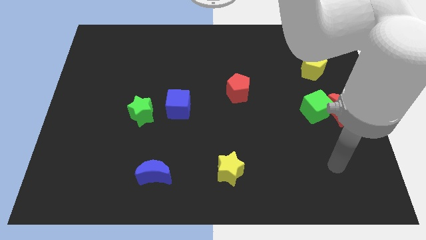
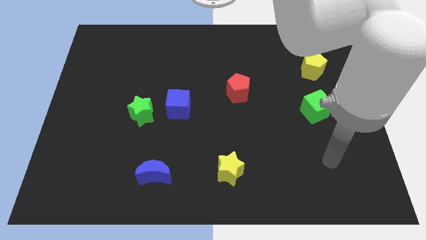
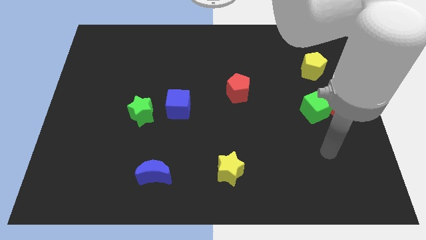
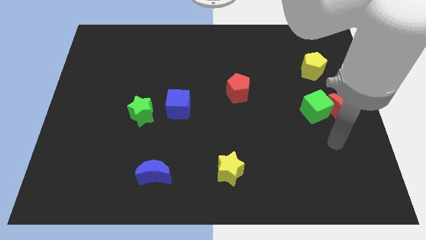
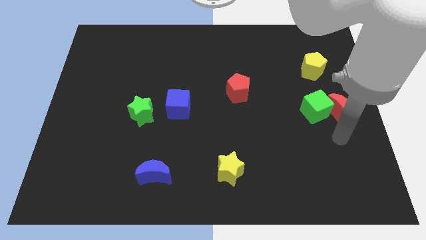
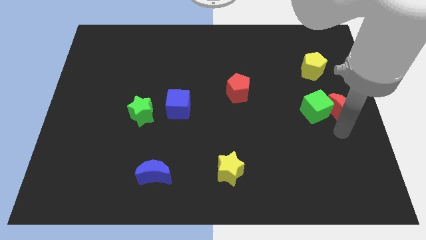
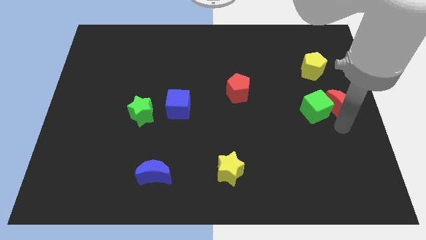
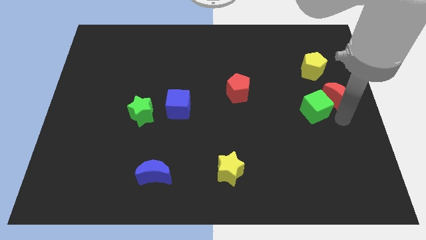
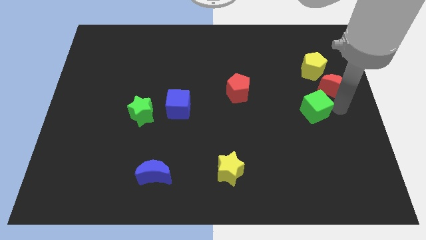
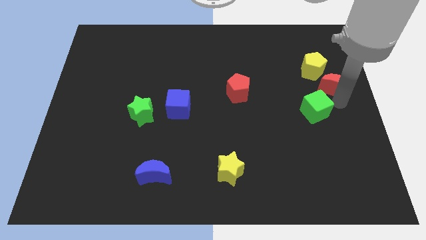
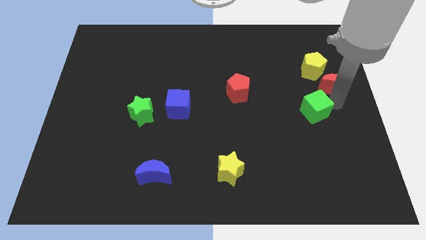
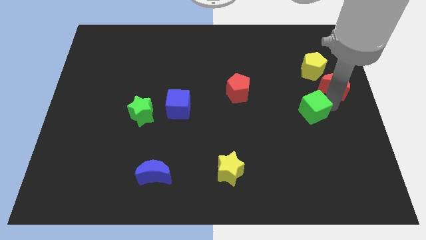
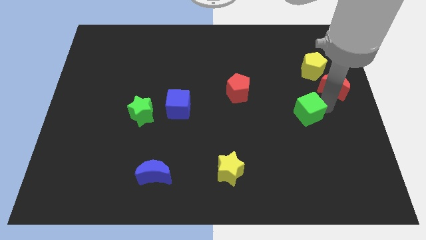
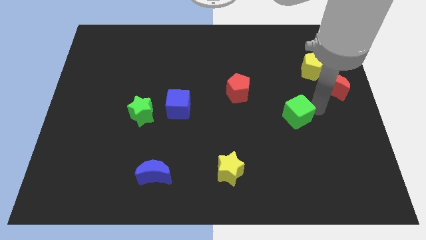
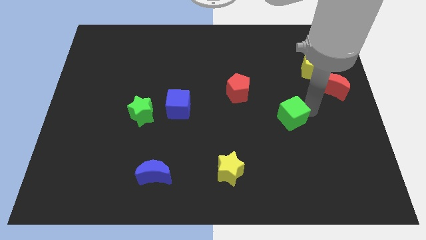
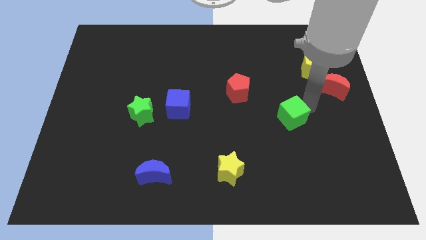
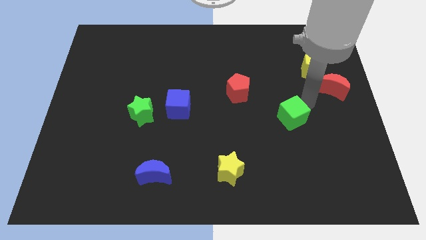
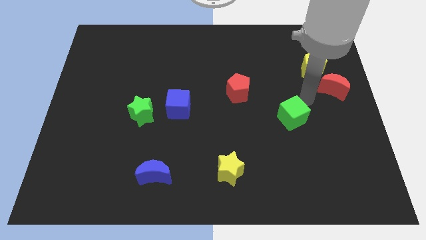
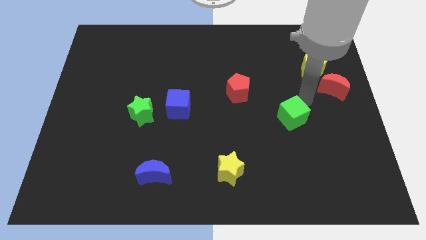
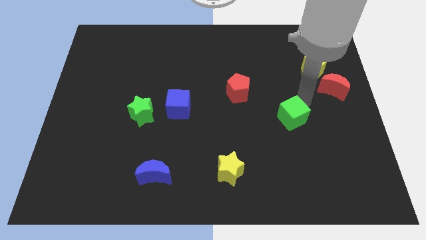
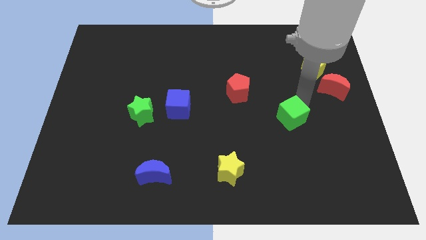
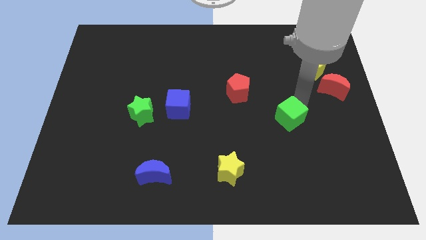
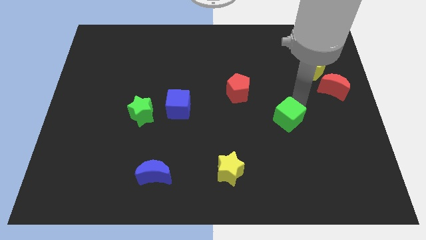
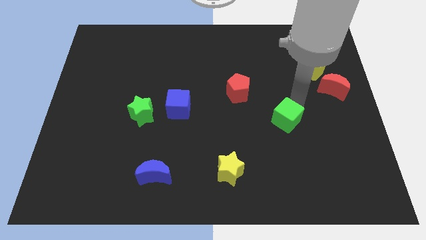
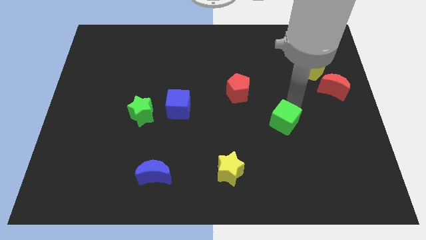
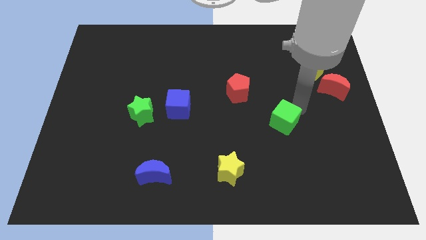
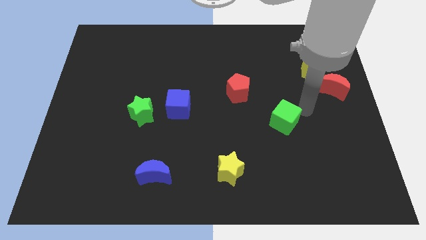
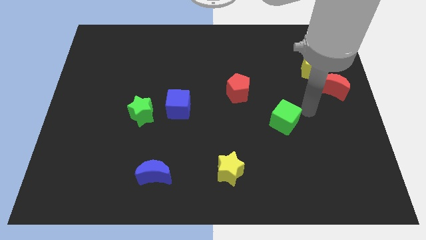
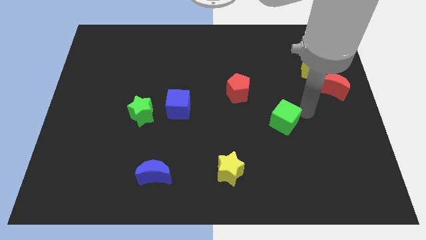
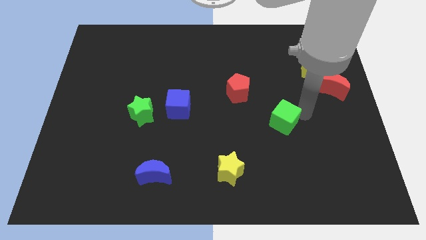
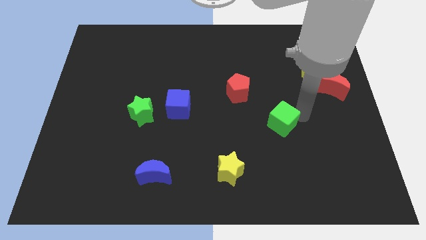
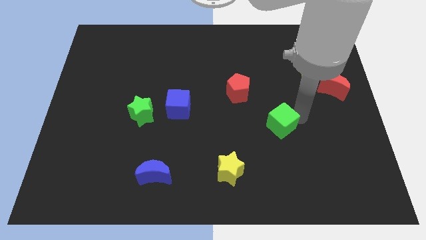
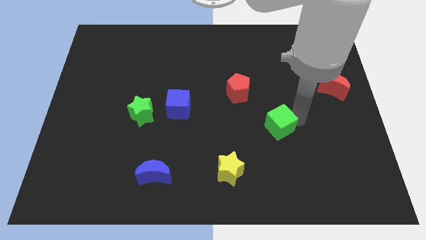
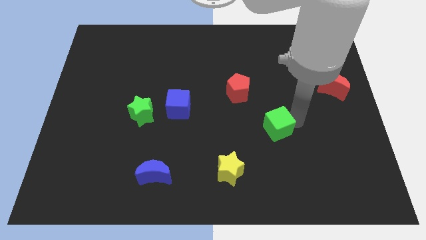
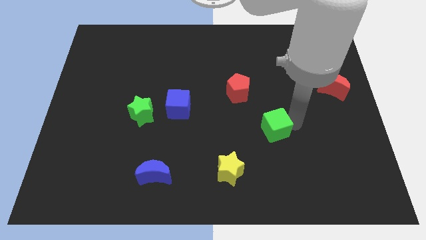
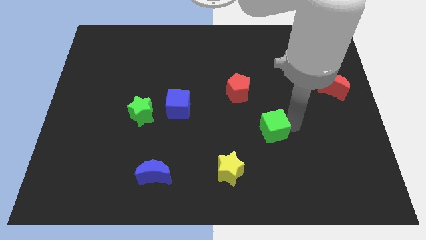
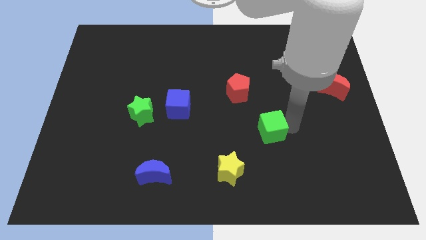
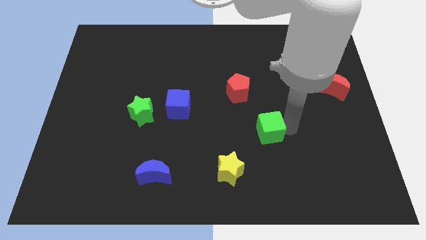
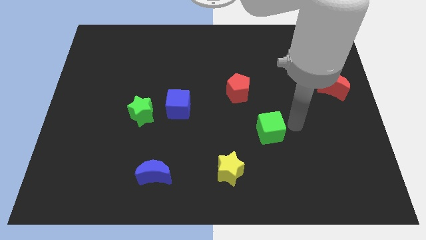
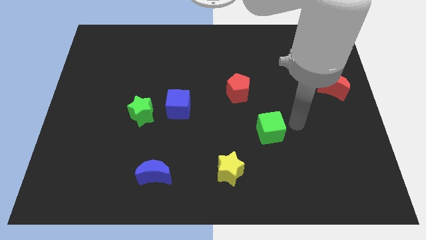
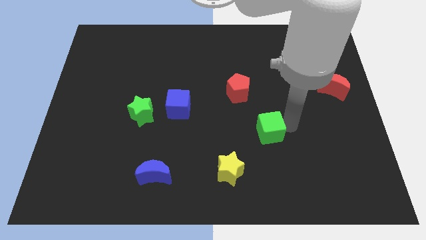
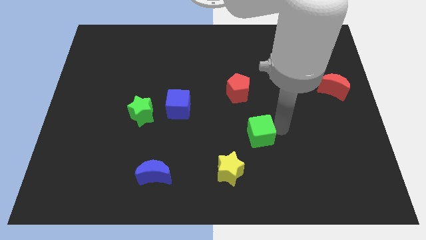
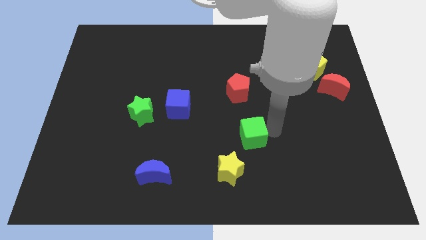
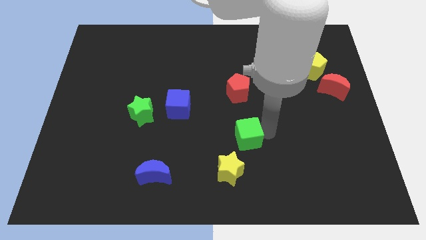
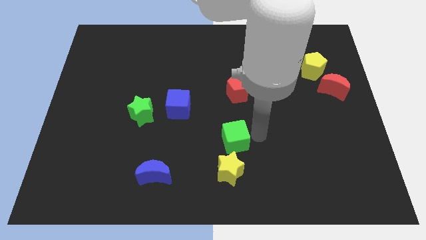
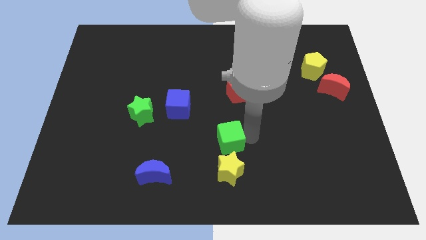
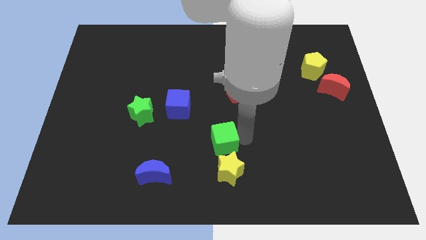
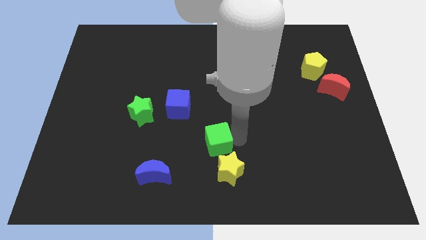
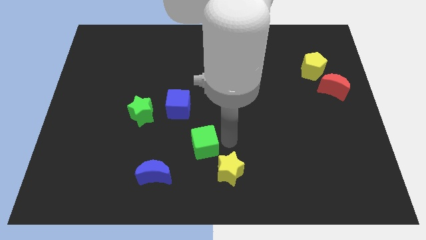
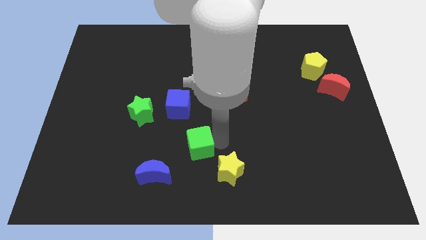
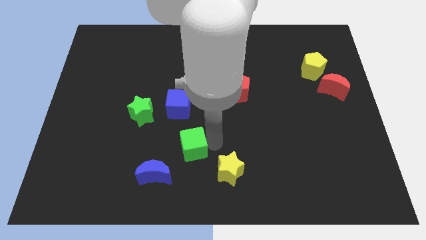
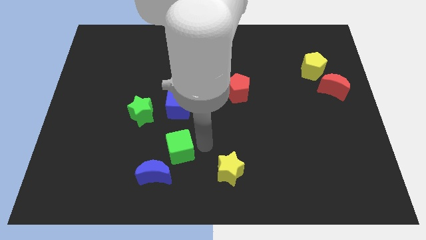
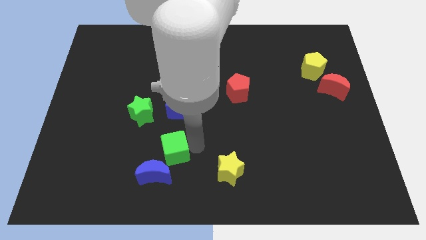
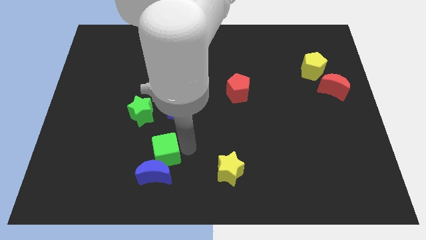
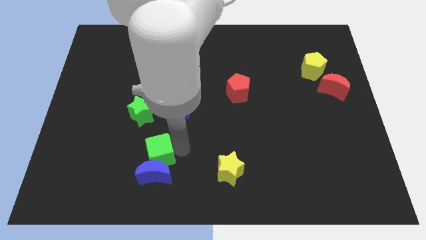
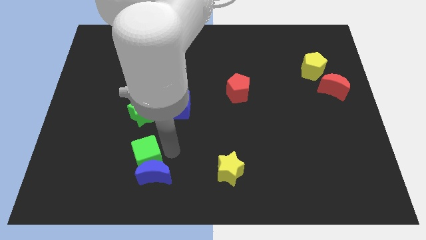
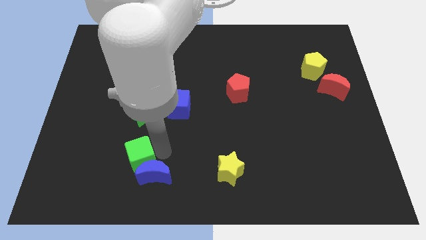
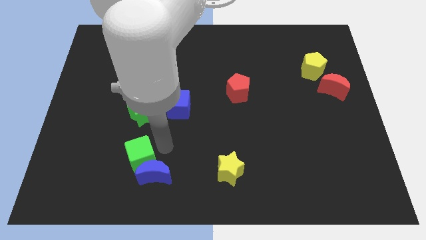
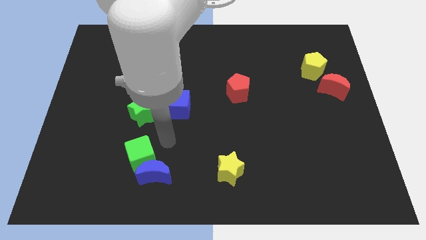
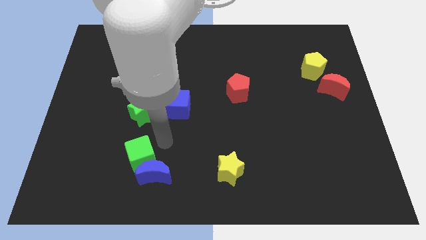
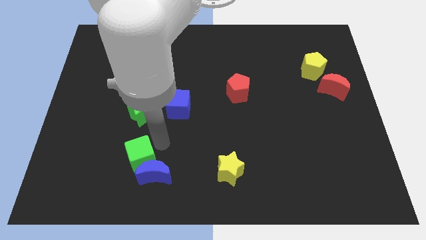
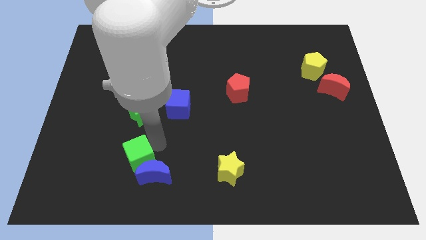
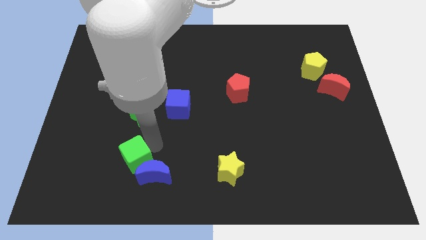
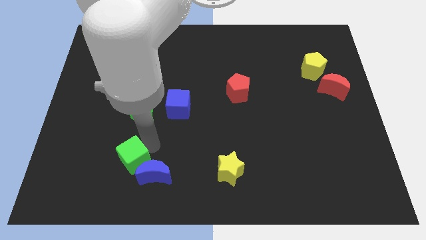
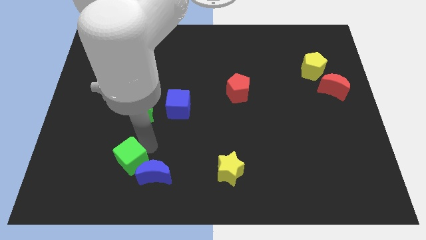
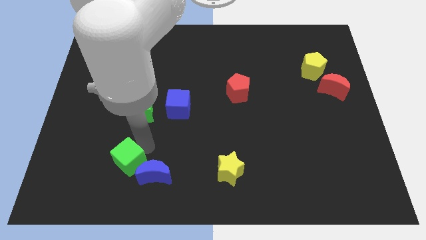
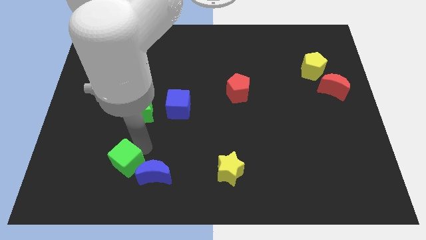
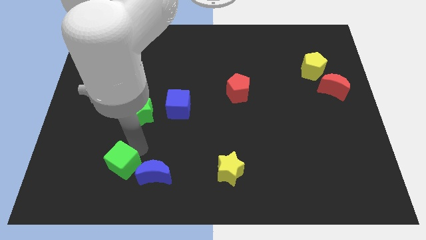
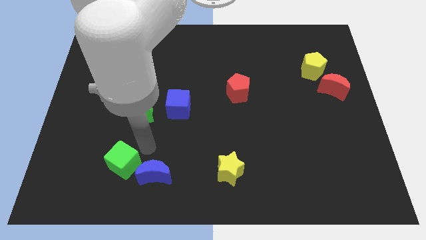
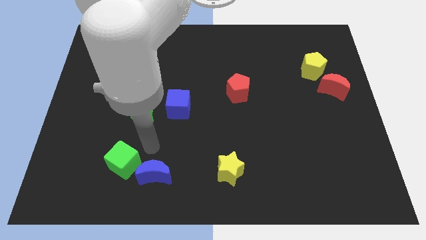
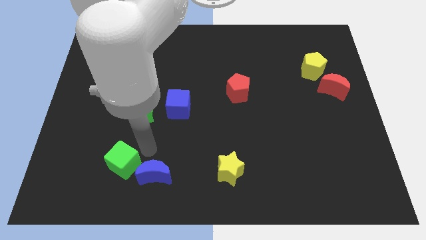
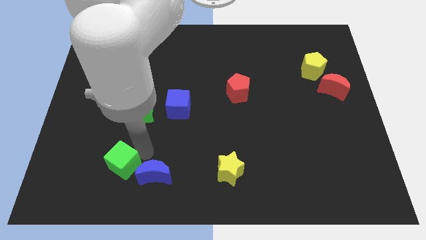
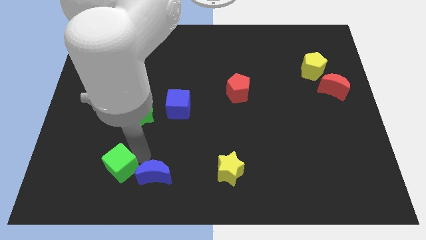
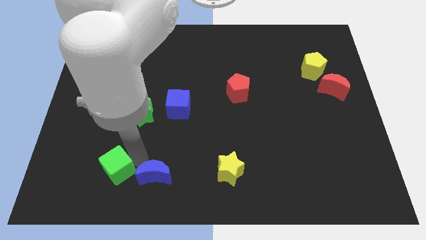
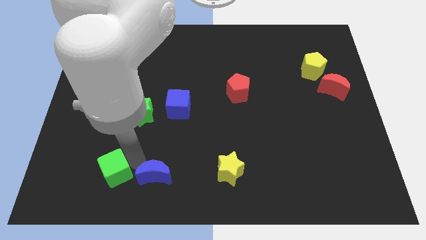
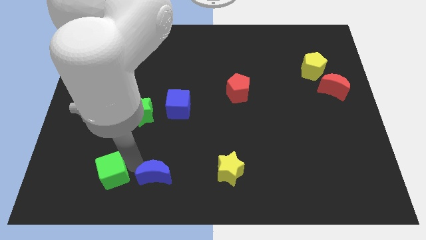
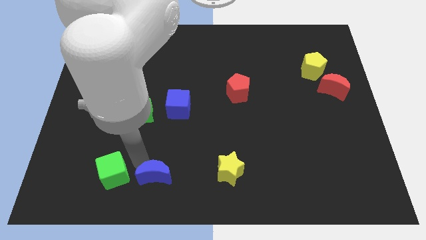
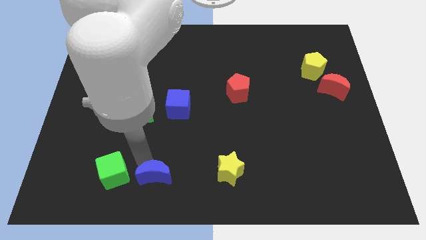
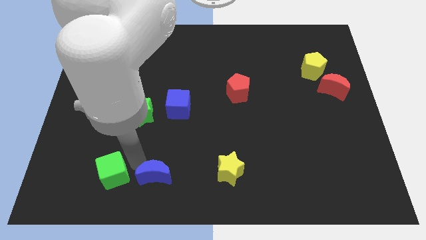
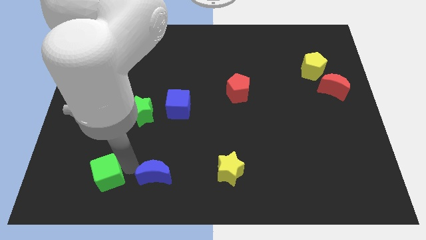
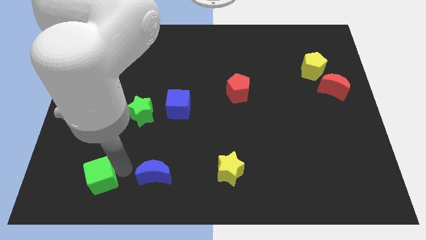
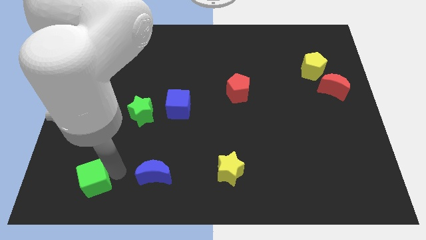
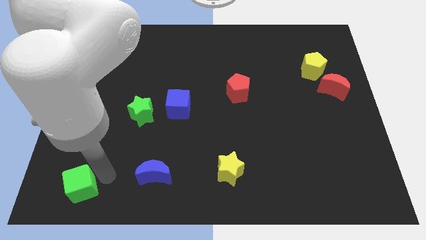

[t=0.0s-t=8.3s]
put the green cube to the bottom left of the board
